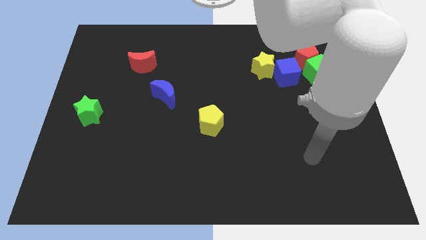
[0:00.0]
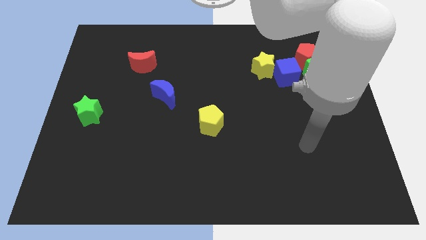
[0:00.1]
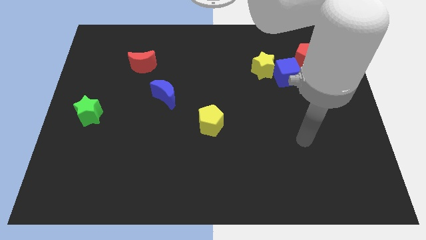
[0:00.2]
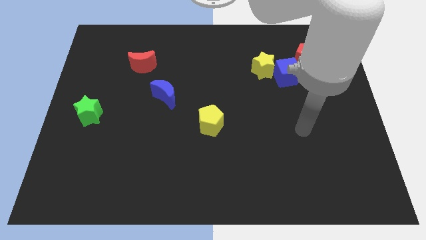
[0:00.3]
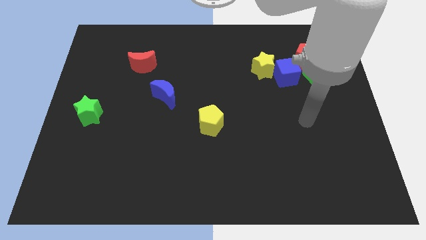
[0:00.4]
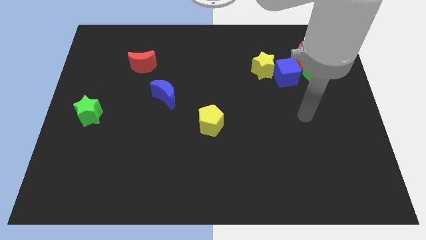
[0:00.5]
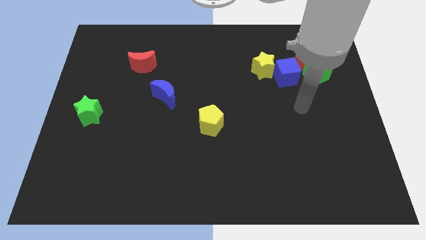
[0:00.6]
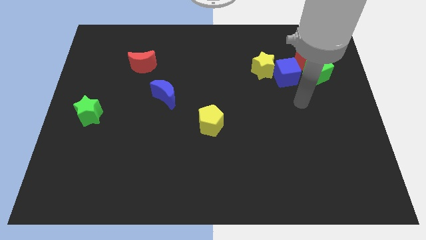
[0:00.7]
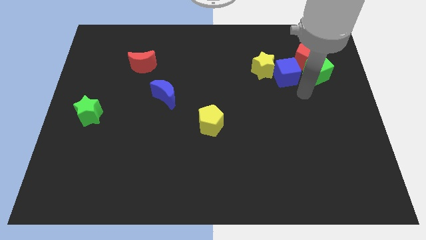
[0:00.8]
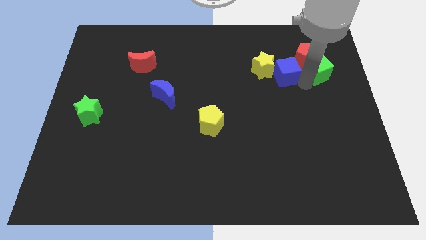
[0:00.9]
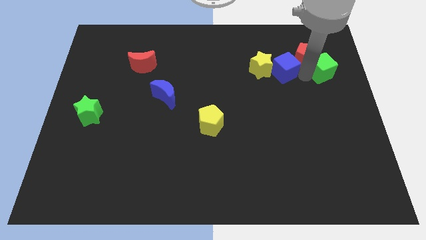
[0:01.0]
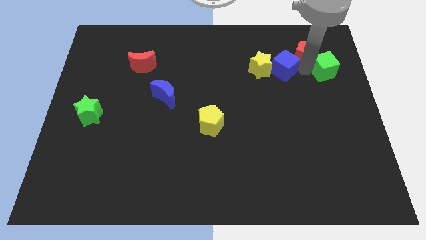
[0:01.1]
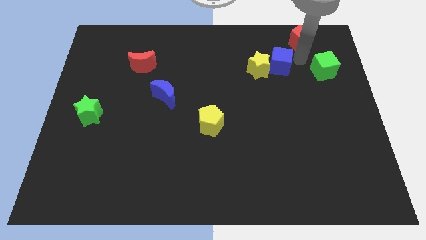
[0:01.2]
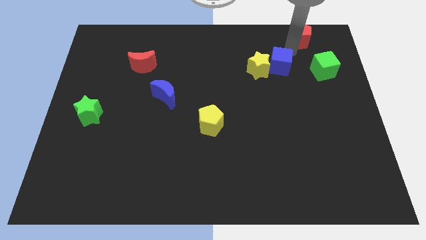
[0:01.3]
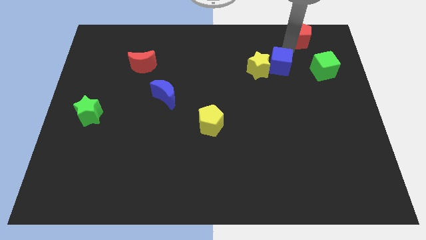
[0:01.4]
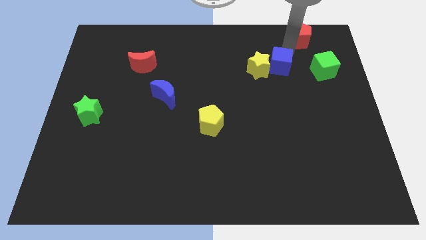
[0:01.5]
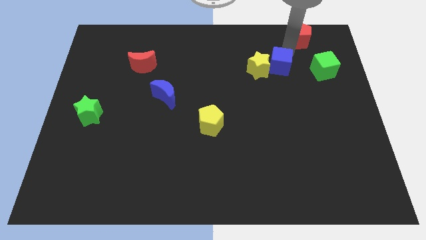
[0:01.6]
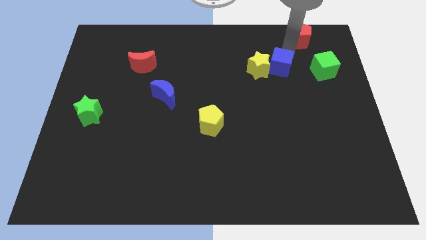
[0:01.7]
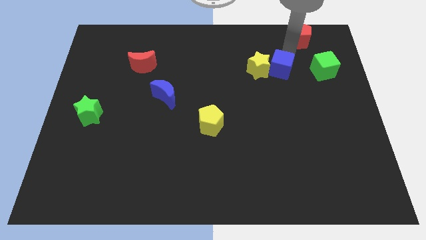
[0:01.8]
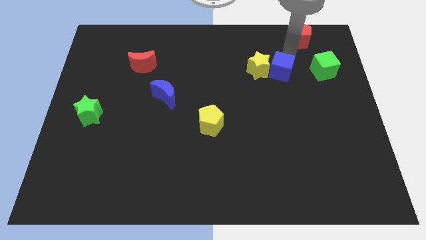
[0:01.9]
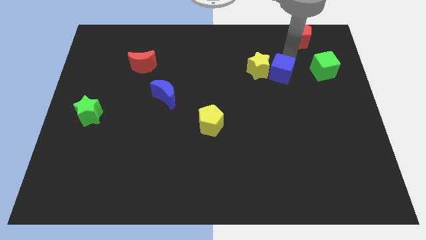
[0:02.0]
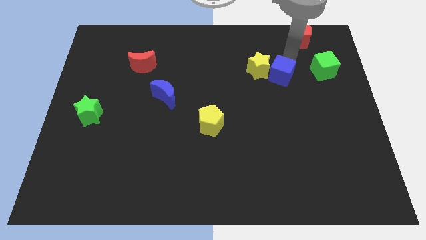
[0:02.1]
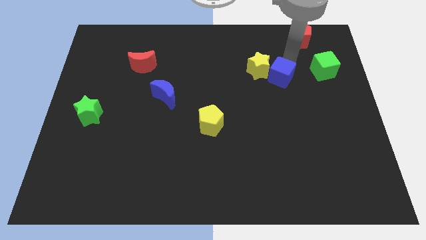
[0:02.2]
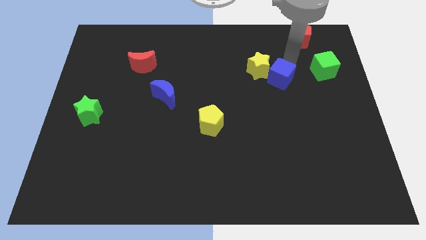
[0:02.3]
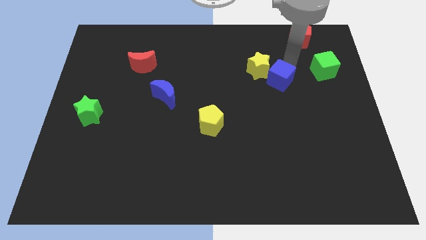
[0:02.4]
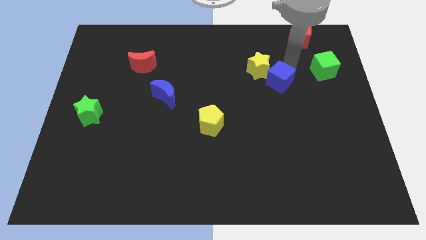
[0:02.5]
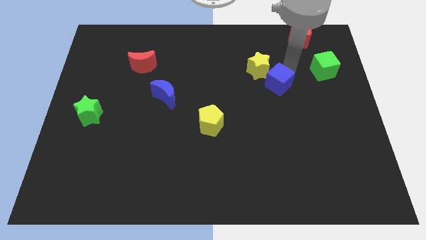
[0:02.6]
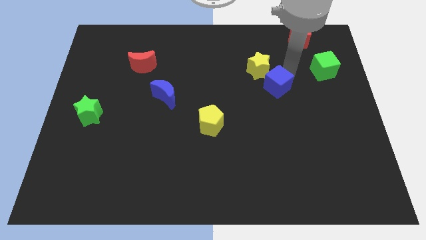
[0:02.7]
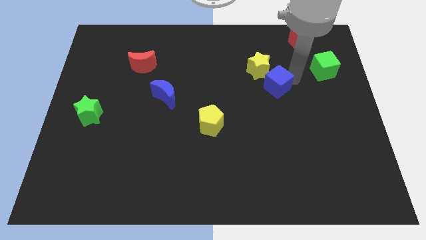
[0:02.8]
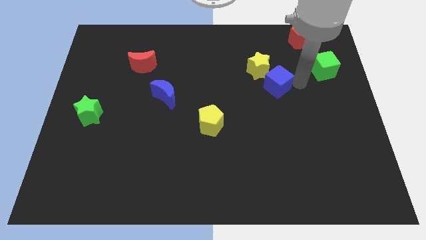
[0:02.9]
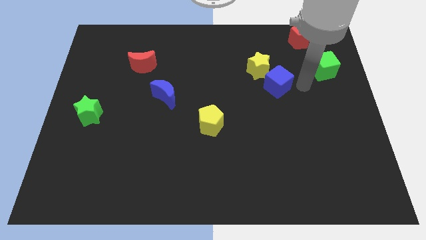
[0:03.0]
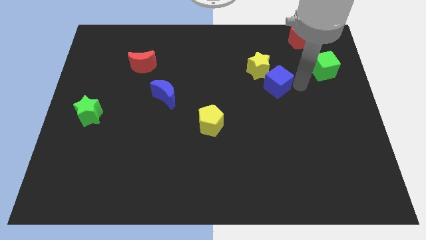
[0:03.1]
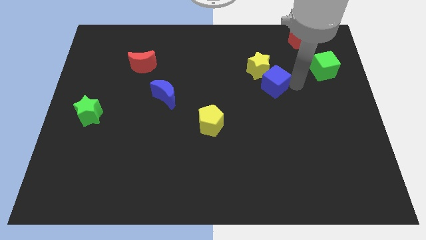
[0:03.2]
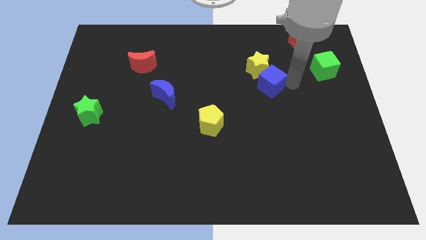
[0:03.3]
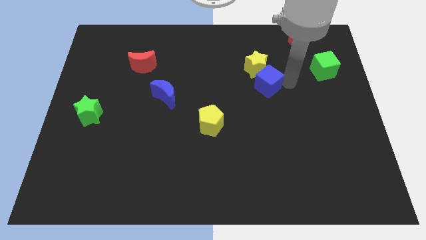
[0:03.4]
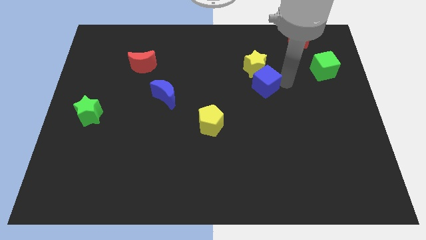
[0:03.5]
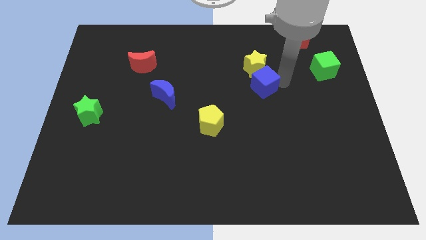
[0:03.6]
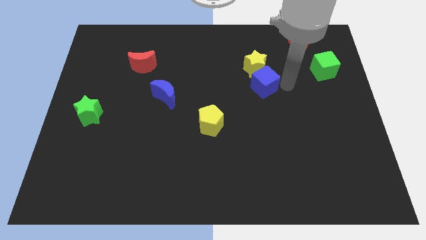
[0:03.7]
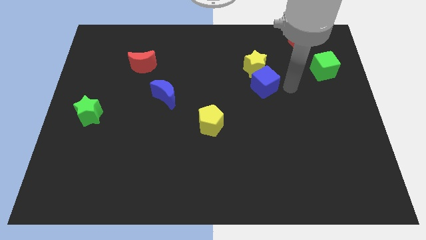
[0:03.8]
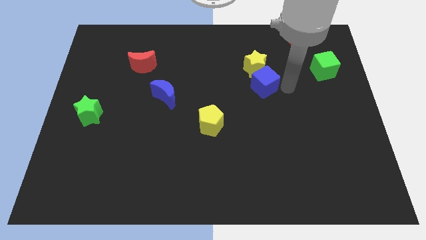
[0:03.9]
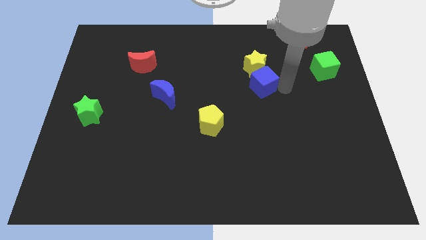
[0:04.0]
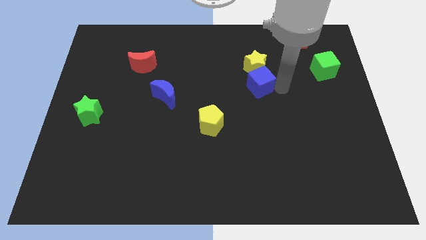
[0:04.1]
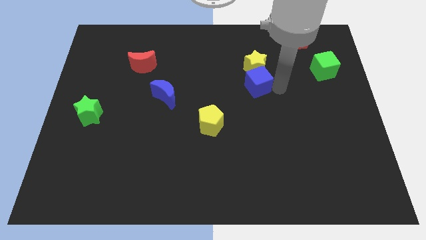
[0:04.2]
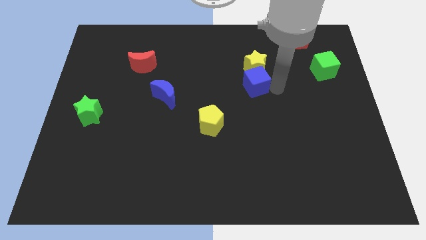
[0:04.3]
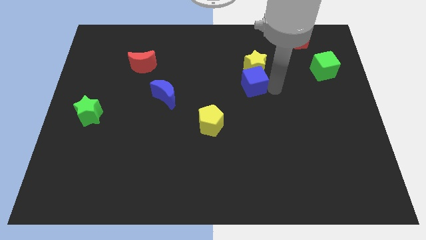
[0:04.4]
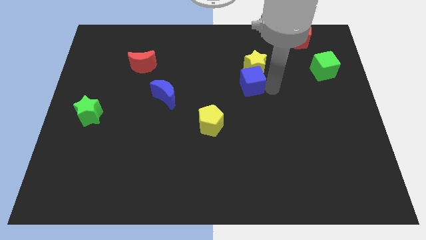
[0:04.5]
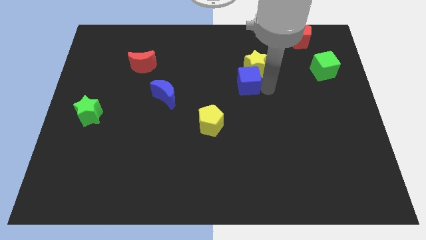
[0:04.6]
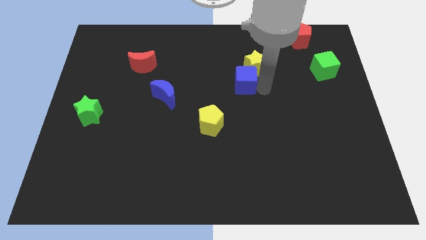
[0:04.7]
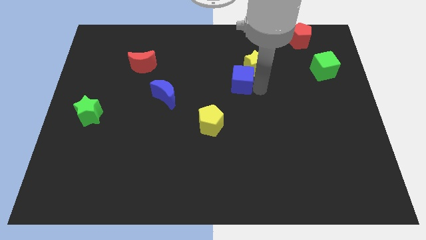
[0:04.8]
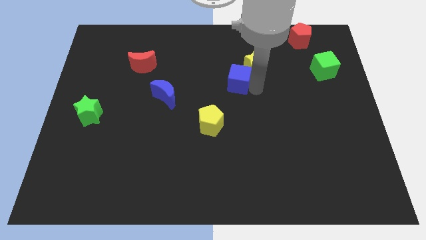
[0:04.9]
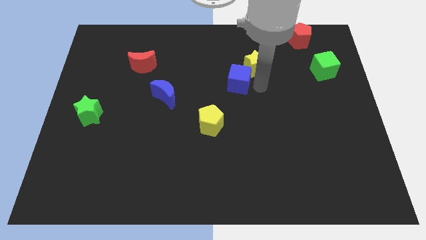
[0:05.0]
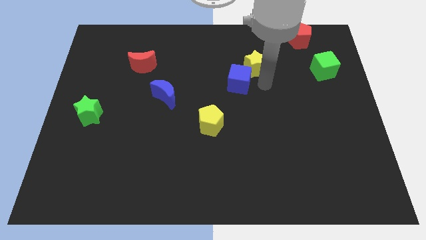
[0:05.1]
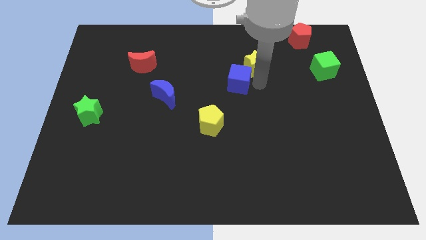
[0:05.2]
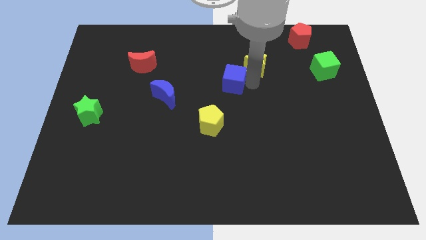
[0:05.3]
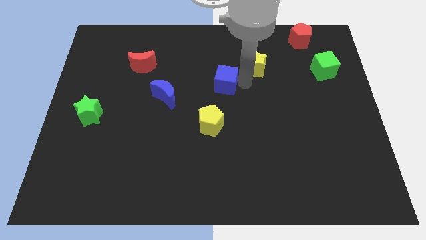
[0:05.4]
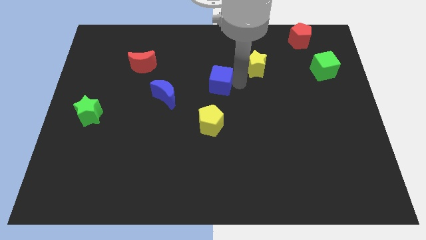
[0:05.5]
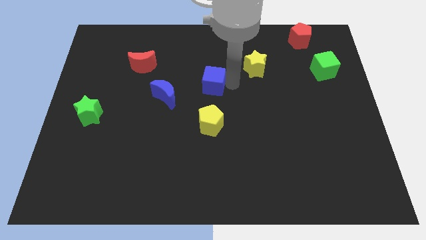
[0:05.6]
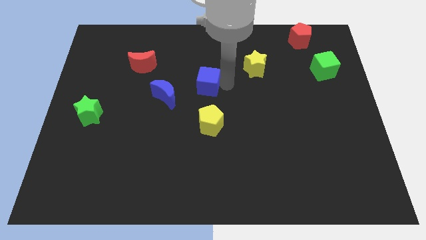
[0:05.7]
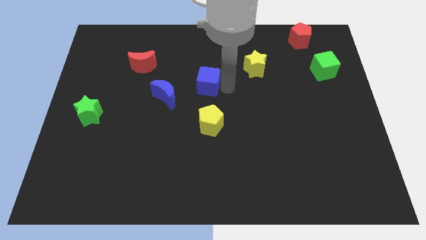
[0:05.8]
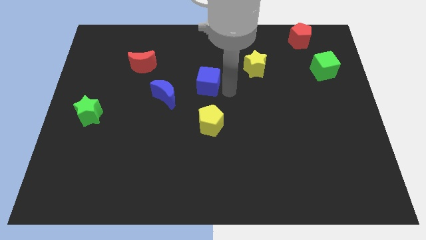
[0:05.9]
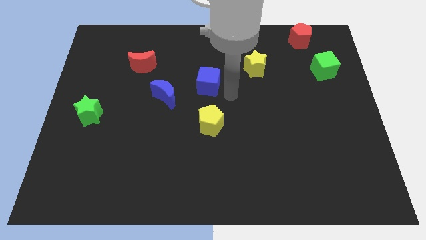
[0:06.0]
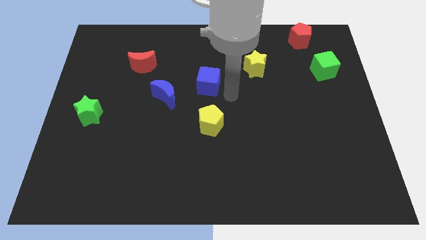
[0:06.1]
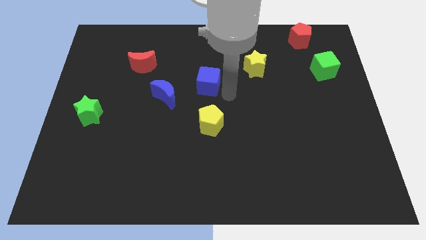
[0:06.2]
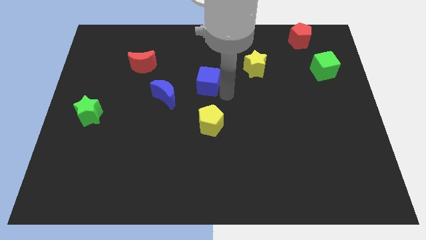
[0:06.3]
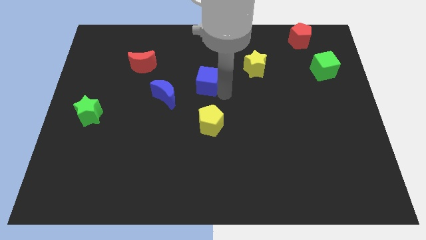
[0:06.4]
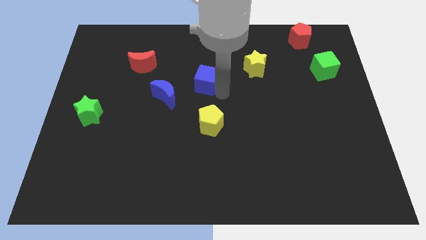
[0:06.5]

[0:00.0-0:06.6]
move the blue cube to the left

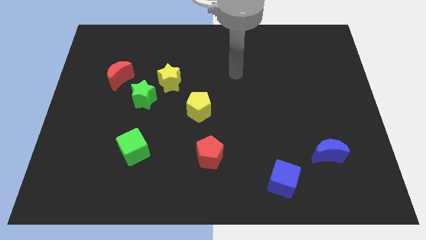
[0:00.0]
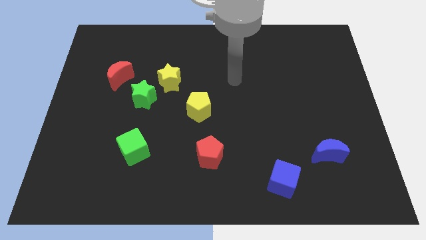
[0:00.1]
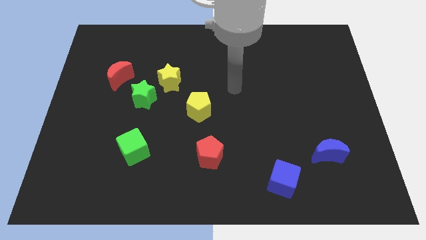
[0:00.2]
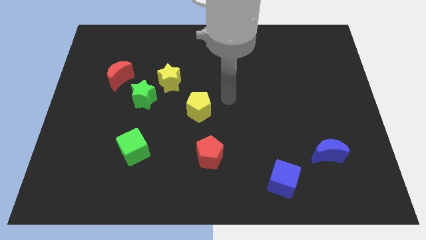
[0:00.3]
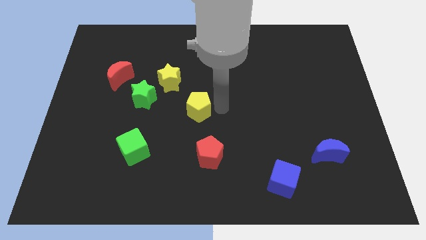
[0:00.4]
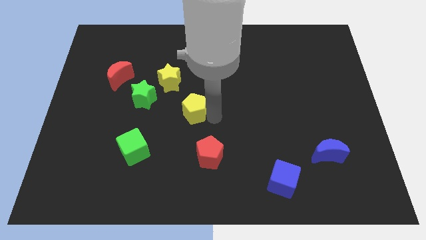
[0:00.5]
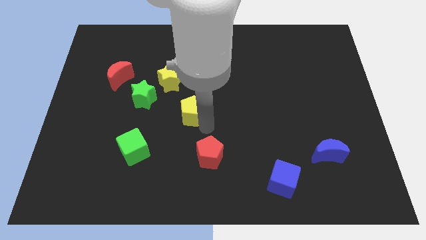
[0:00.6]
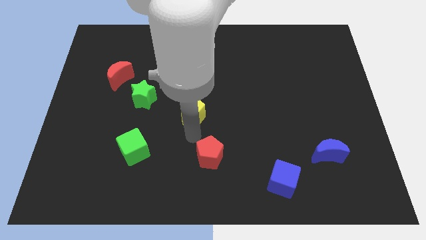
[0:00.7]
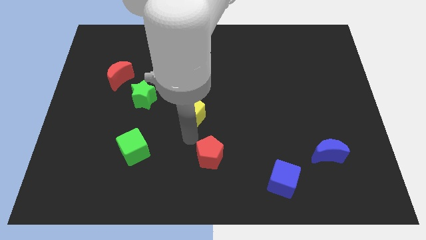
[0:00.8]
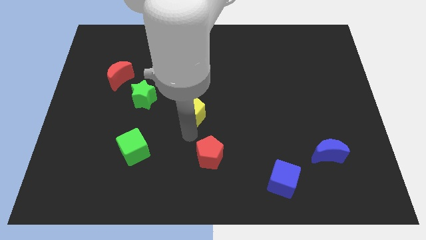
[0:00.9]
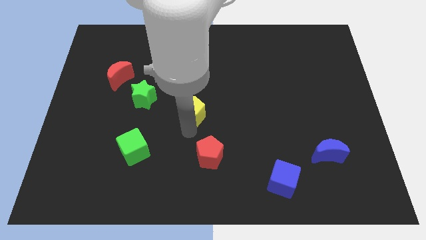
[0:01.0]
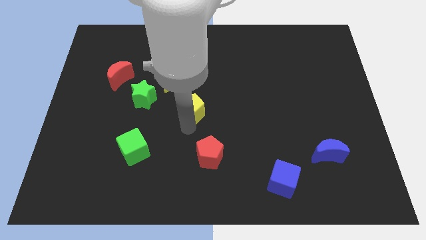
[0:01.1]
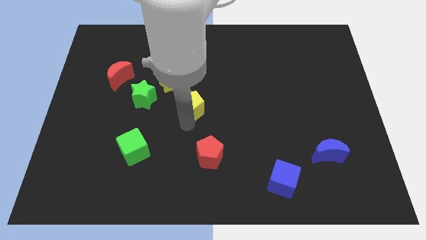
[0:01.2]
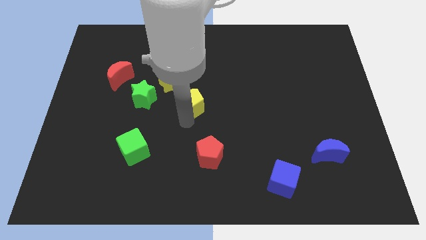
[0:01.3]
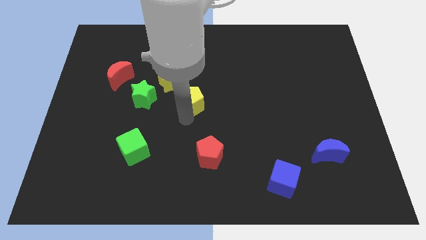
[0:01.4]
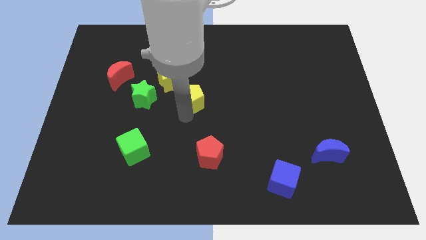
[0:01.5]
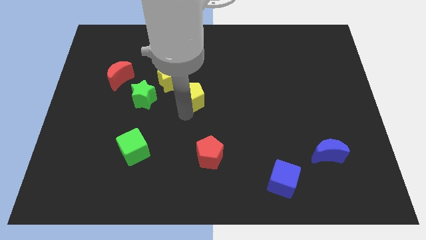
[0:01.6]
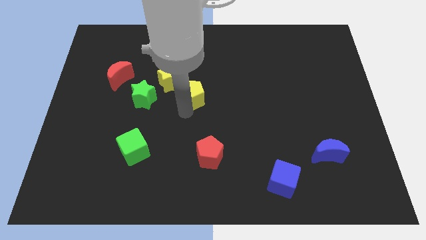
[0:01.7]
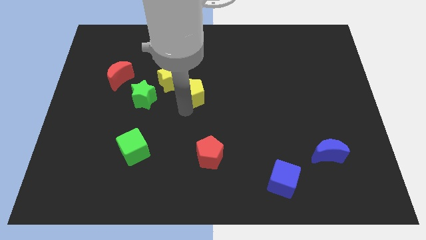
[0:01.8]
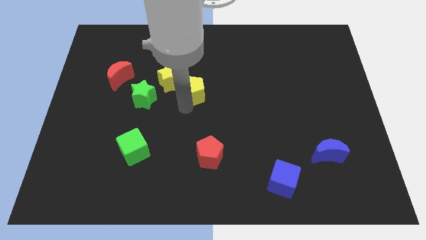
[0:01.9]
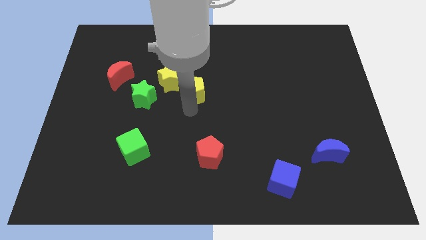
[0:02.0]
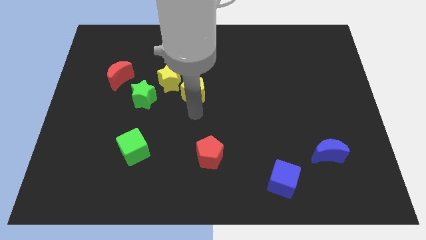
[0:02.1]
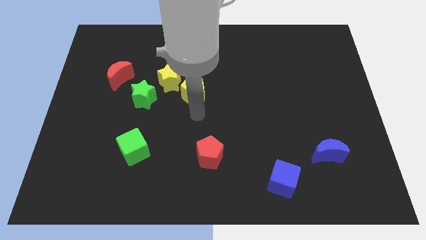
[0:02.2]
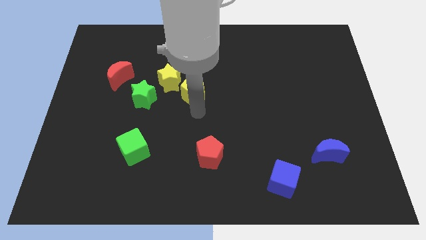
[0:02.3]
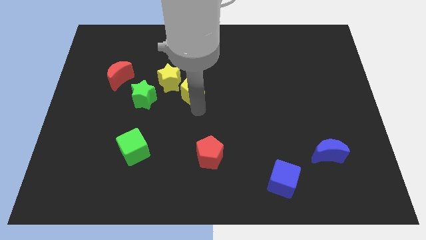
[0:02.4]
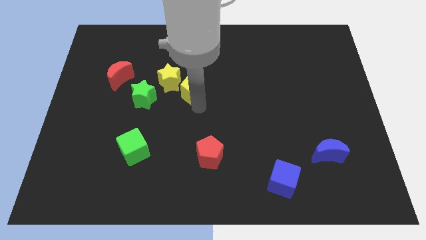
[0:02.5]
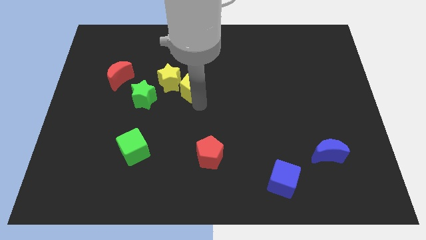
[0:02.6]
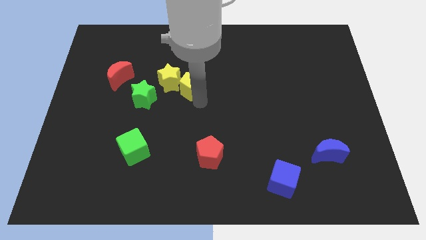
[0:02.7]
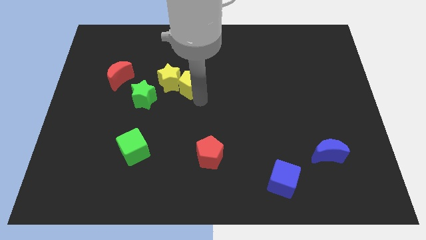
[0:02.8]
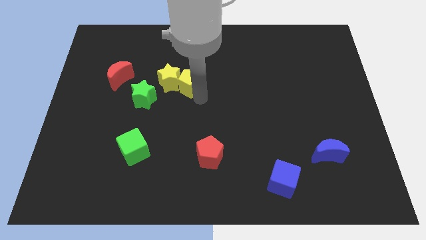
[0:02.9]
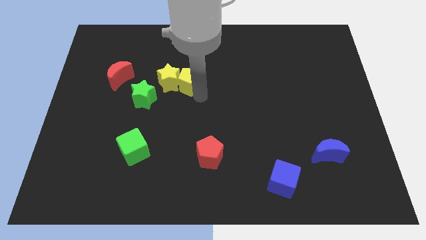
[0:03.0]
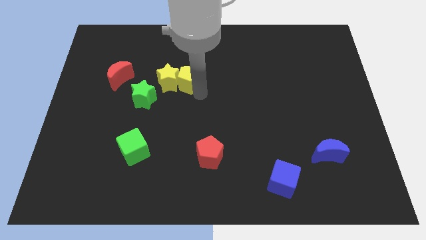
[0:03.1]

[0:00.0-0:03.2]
slightly slide the yellow pentagon up and to the left
